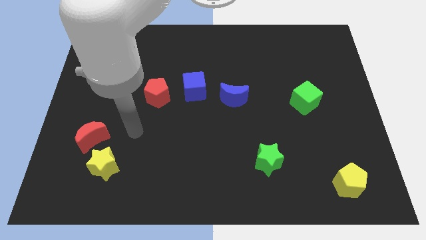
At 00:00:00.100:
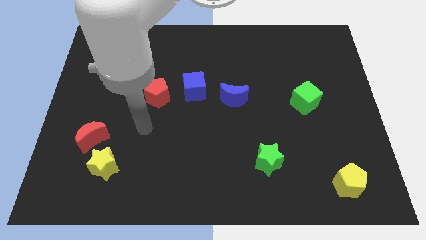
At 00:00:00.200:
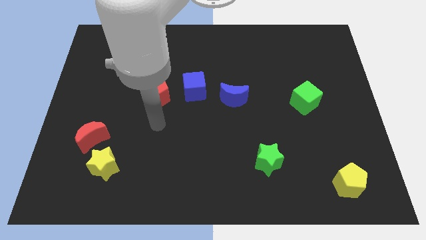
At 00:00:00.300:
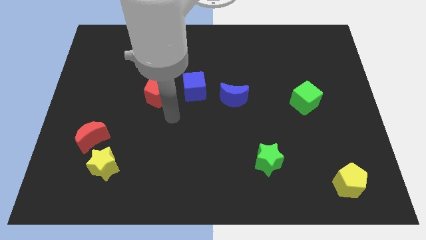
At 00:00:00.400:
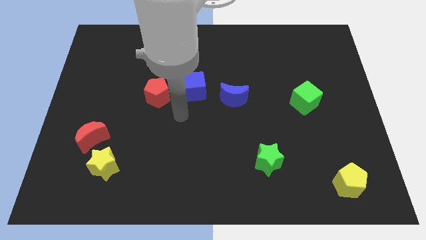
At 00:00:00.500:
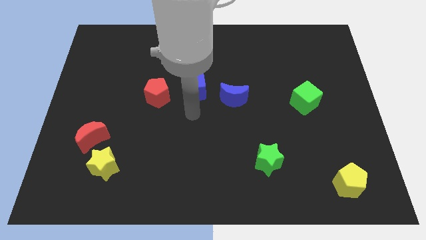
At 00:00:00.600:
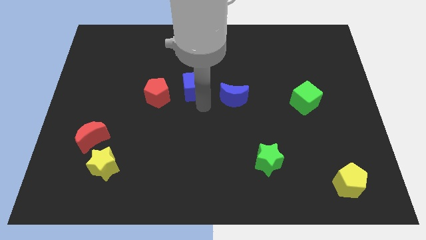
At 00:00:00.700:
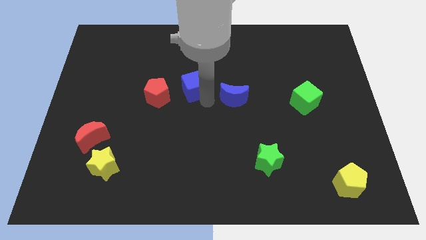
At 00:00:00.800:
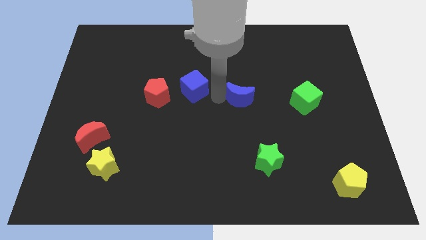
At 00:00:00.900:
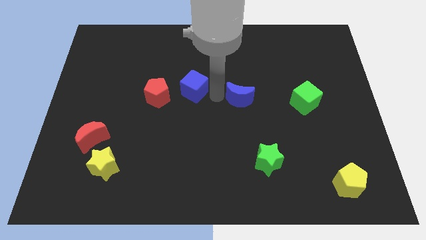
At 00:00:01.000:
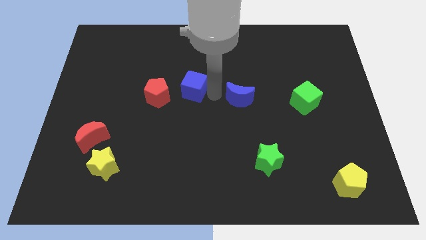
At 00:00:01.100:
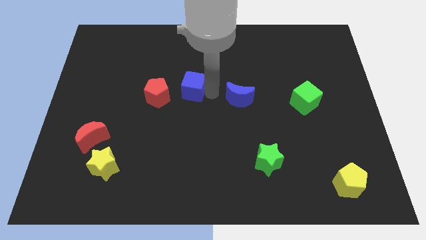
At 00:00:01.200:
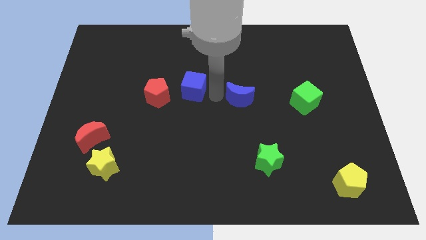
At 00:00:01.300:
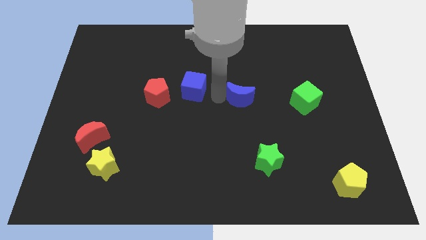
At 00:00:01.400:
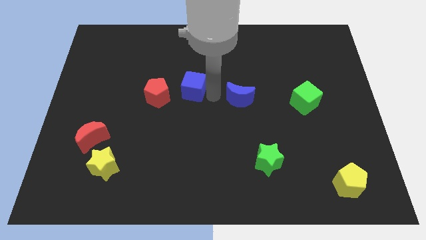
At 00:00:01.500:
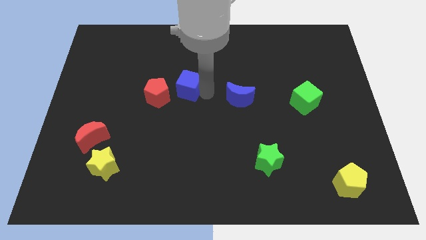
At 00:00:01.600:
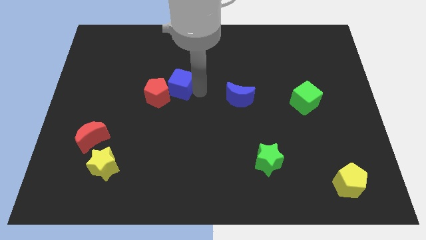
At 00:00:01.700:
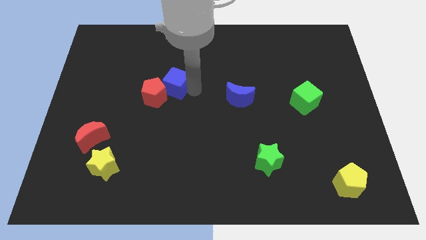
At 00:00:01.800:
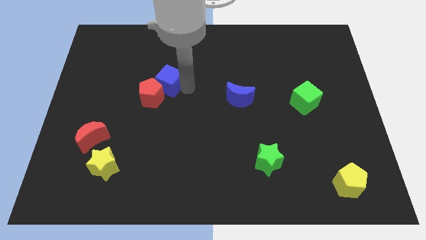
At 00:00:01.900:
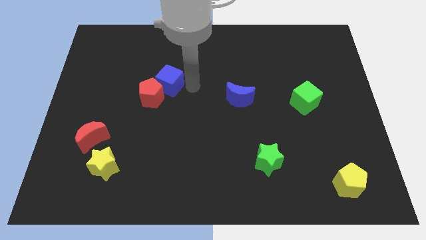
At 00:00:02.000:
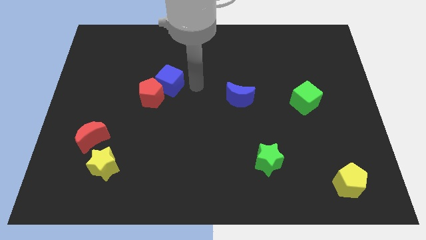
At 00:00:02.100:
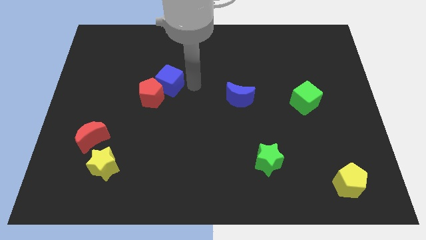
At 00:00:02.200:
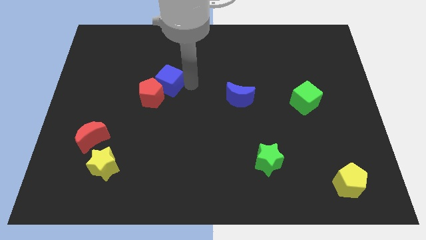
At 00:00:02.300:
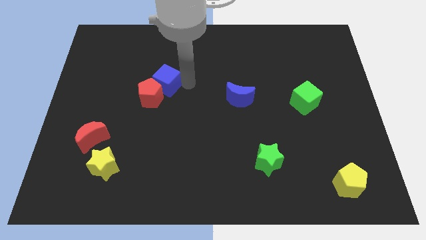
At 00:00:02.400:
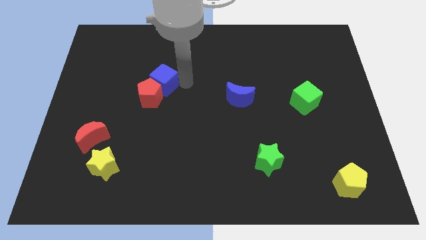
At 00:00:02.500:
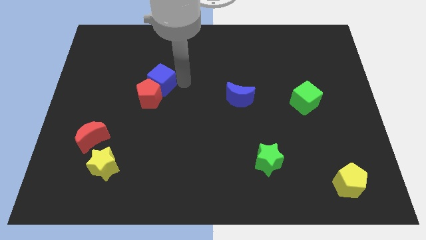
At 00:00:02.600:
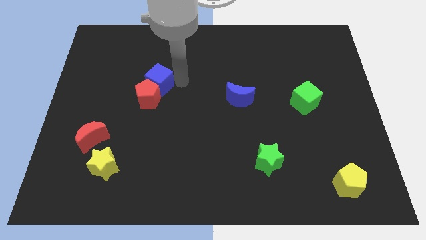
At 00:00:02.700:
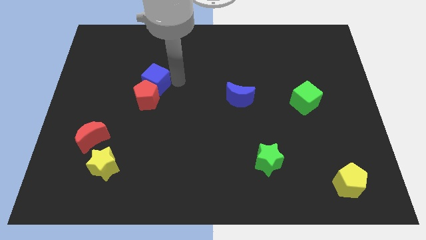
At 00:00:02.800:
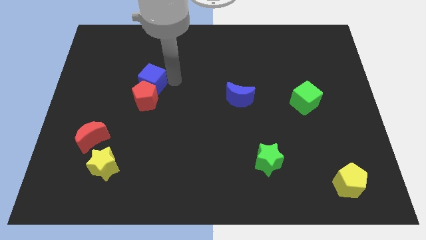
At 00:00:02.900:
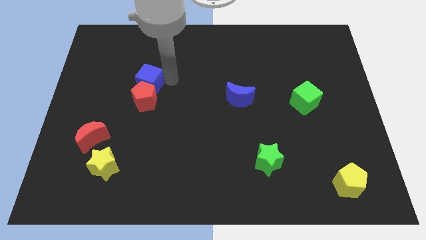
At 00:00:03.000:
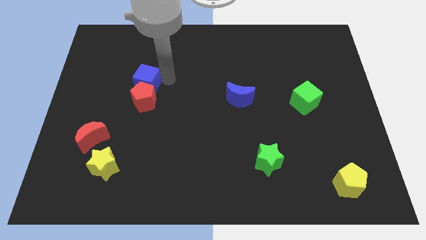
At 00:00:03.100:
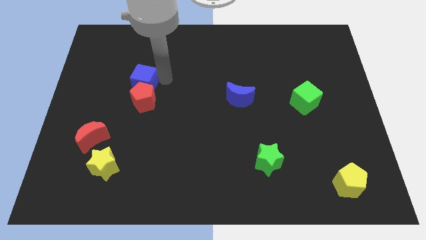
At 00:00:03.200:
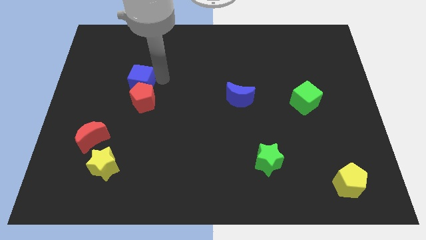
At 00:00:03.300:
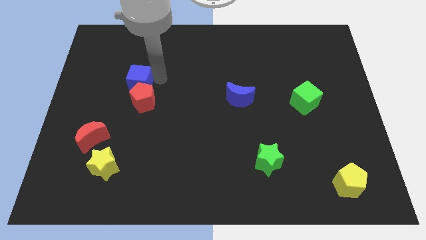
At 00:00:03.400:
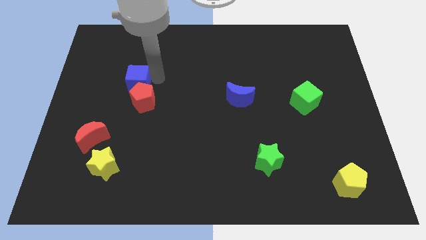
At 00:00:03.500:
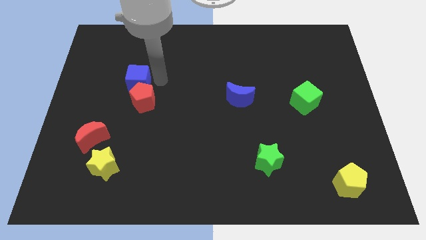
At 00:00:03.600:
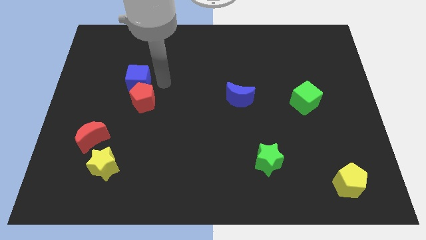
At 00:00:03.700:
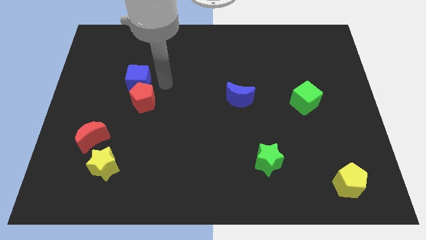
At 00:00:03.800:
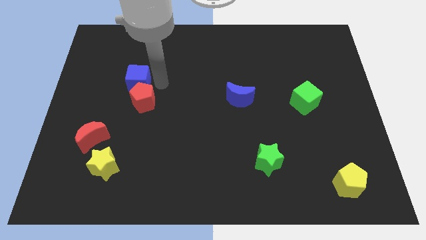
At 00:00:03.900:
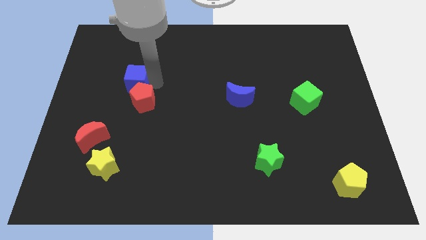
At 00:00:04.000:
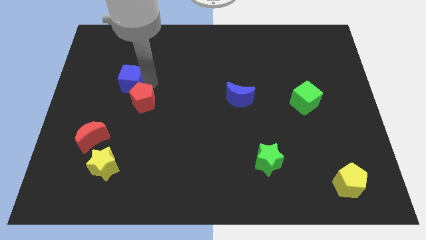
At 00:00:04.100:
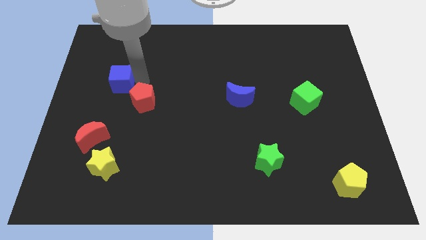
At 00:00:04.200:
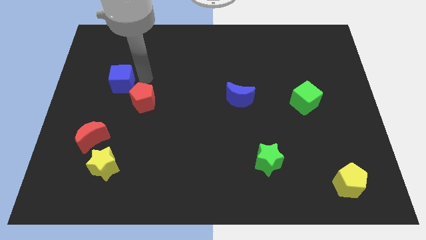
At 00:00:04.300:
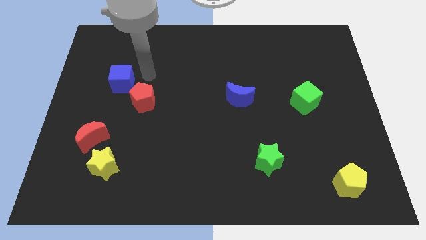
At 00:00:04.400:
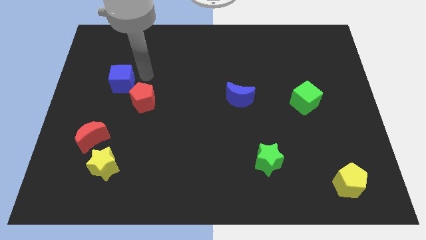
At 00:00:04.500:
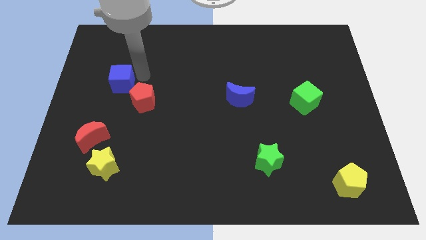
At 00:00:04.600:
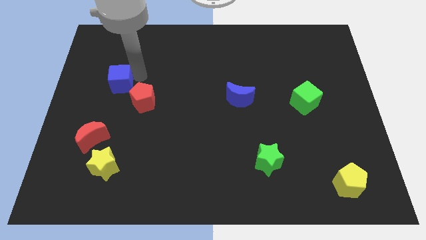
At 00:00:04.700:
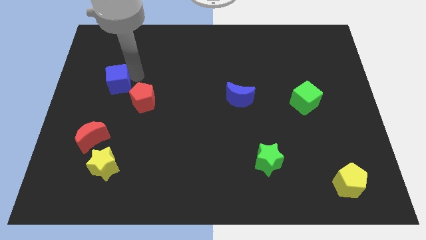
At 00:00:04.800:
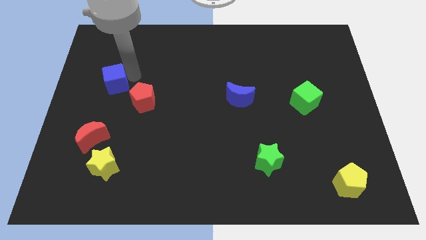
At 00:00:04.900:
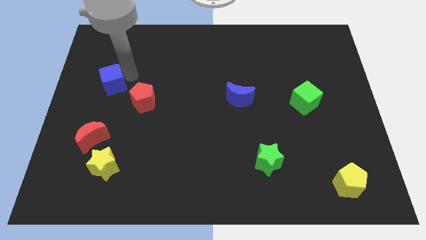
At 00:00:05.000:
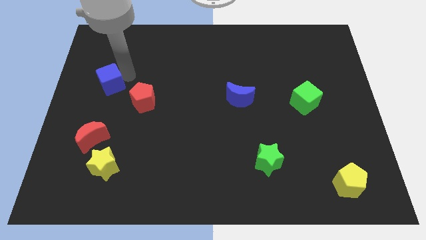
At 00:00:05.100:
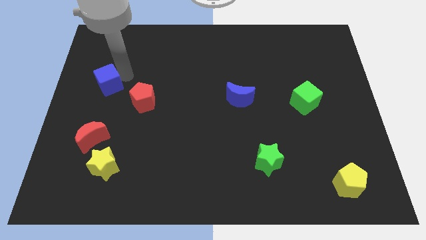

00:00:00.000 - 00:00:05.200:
put the blue cube to the center left
